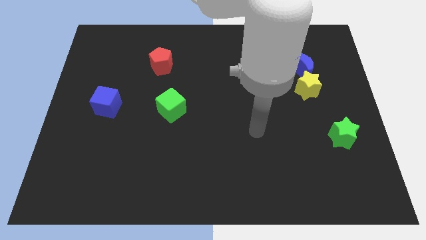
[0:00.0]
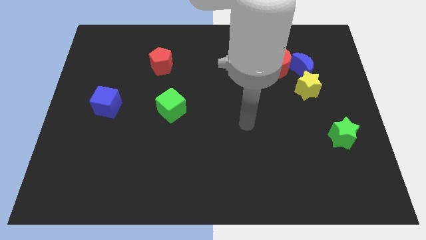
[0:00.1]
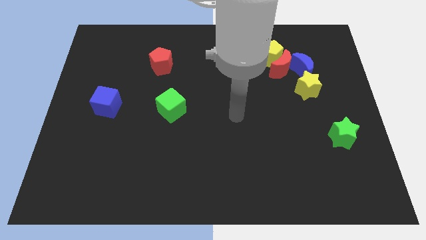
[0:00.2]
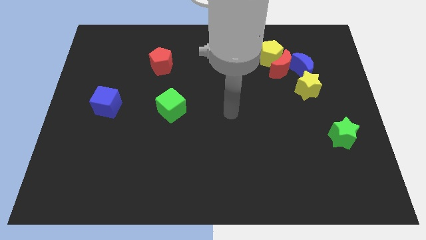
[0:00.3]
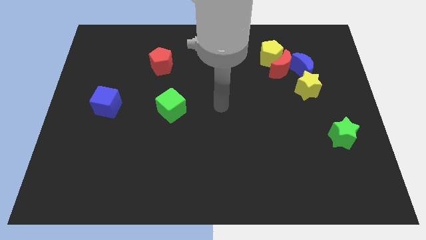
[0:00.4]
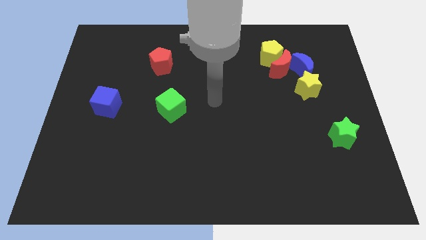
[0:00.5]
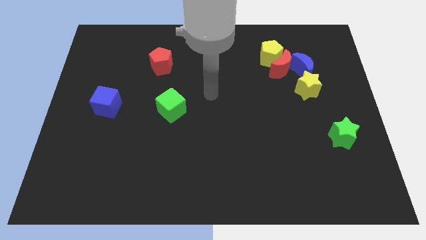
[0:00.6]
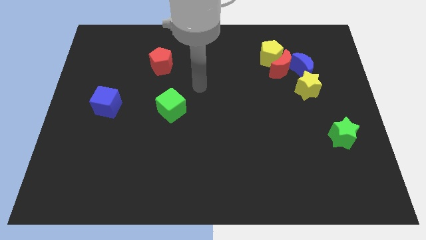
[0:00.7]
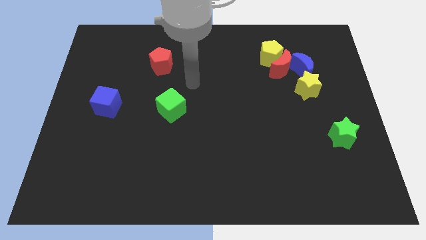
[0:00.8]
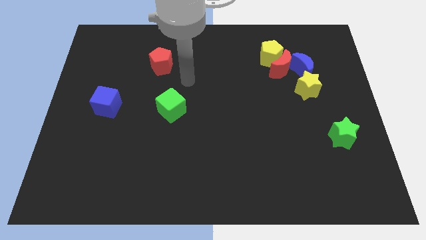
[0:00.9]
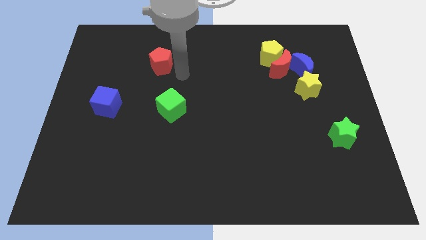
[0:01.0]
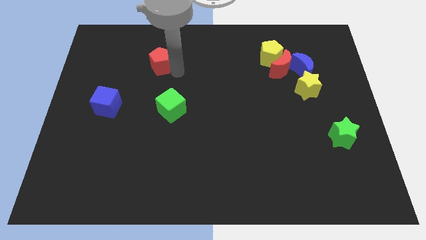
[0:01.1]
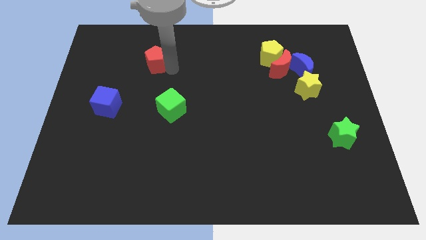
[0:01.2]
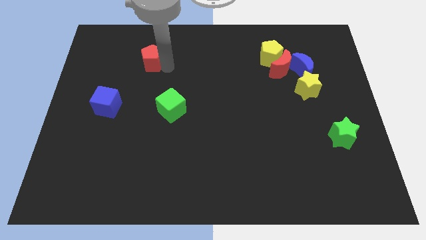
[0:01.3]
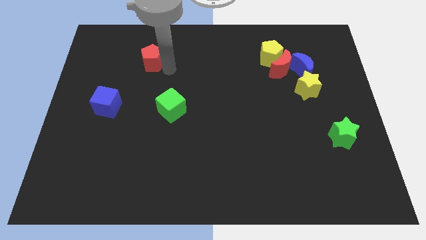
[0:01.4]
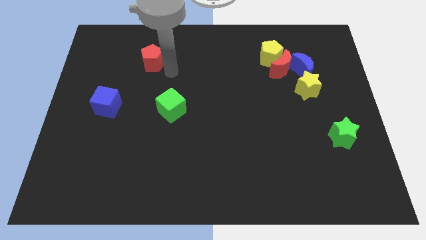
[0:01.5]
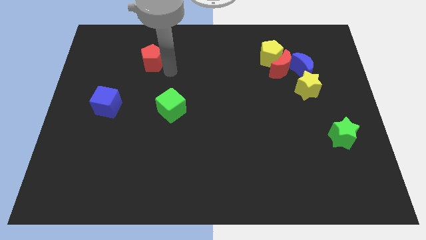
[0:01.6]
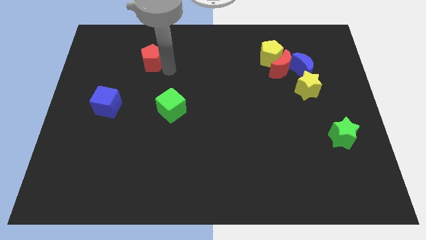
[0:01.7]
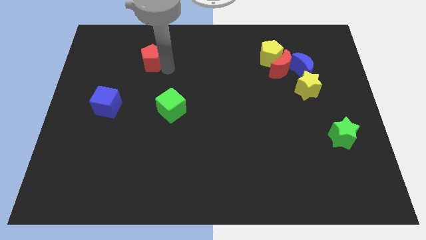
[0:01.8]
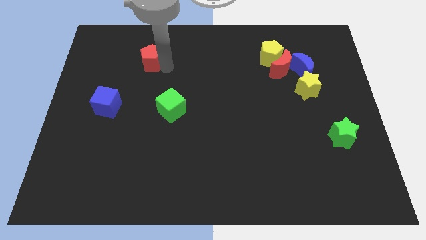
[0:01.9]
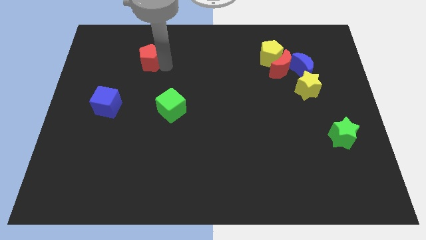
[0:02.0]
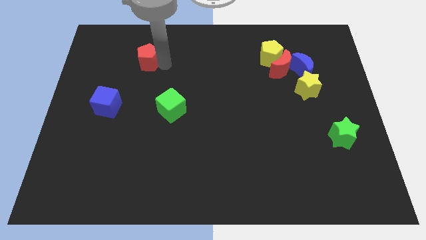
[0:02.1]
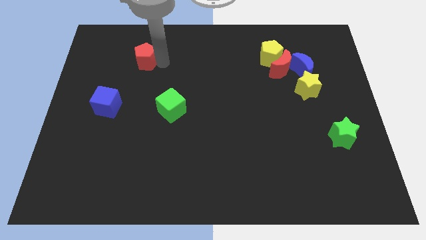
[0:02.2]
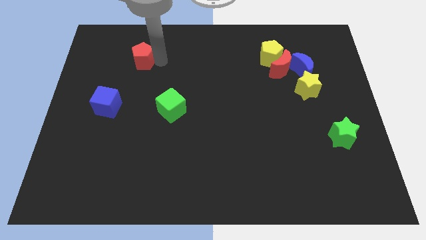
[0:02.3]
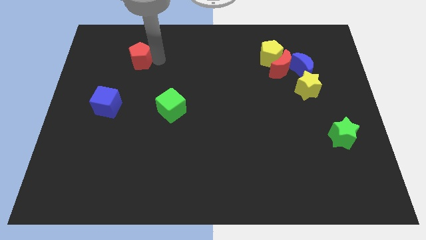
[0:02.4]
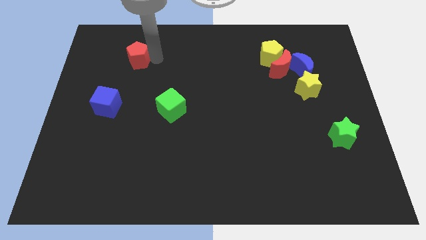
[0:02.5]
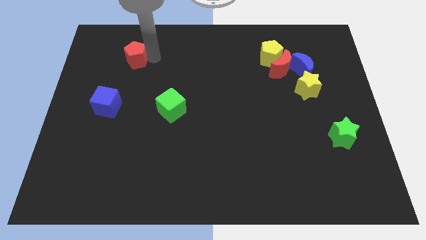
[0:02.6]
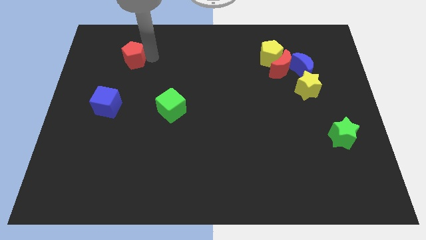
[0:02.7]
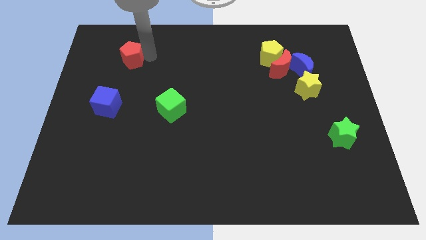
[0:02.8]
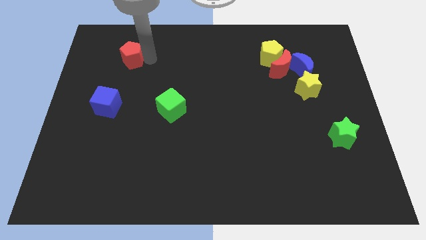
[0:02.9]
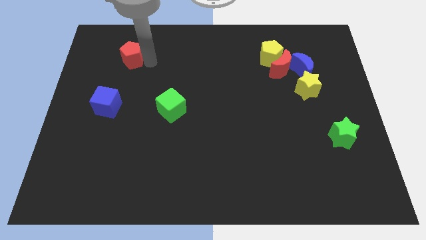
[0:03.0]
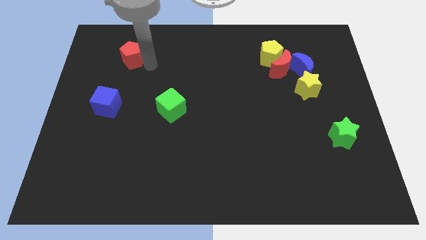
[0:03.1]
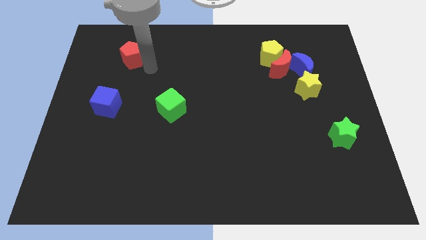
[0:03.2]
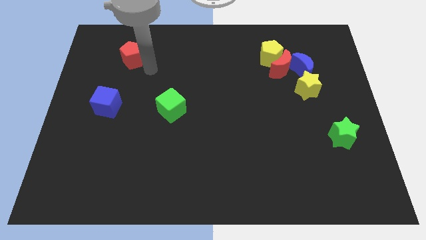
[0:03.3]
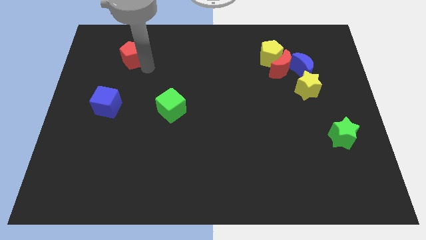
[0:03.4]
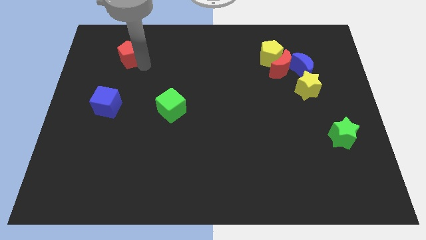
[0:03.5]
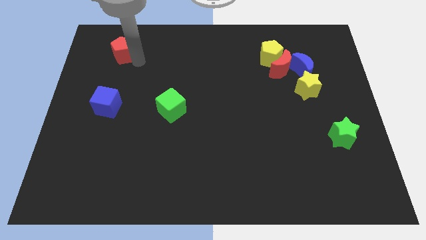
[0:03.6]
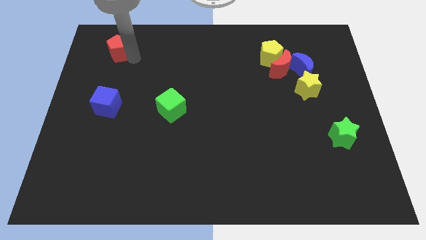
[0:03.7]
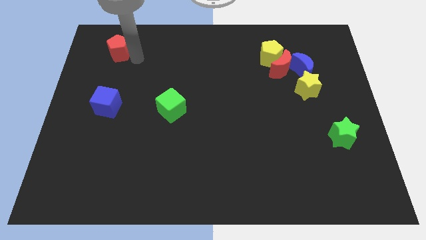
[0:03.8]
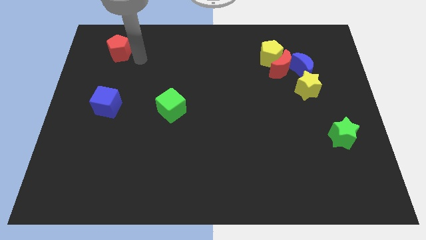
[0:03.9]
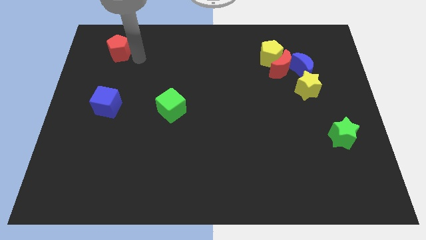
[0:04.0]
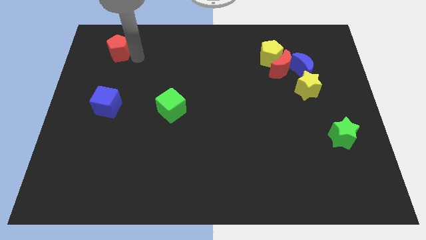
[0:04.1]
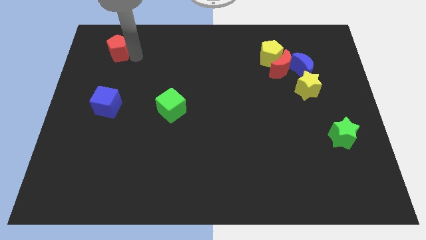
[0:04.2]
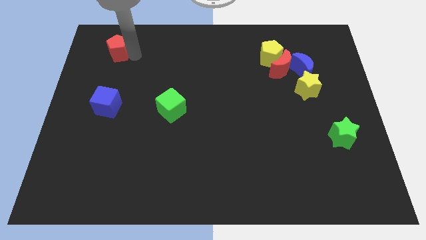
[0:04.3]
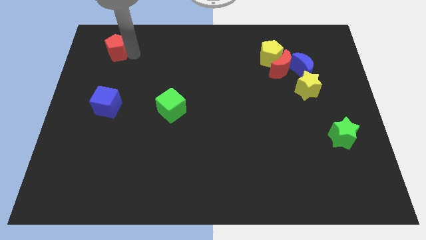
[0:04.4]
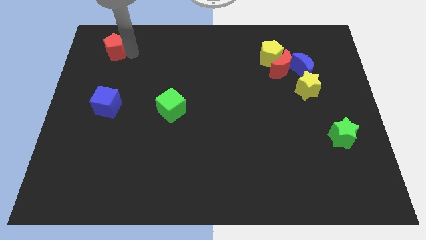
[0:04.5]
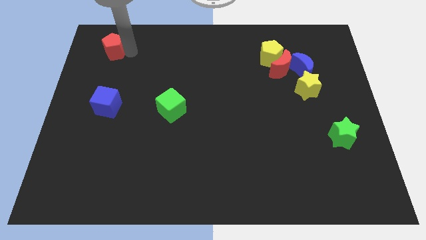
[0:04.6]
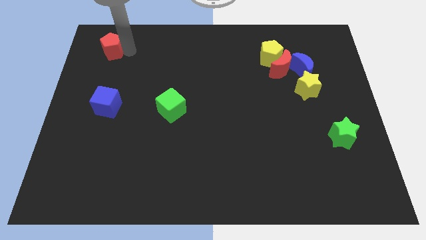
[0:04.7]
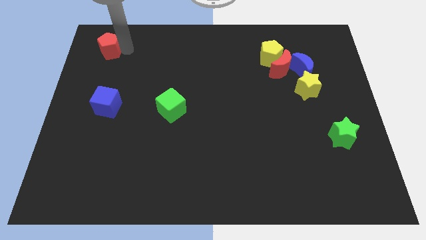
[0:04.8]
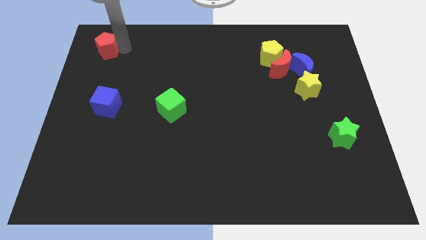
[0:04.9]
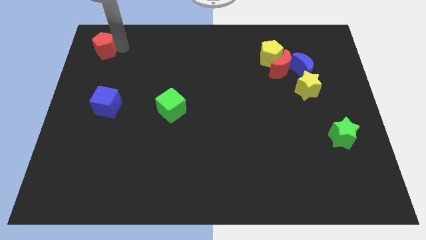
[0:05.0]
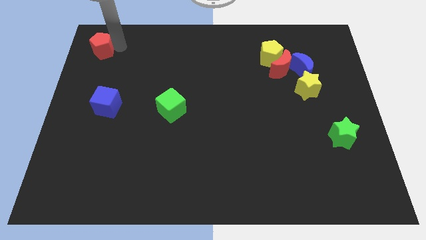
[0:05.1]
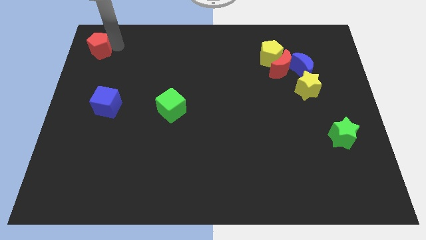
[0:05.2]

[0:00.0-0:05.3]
push the red pentagon to the top left of the board

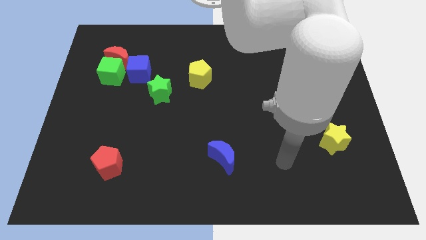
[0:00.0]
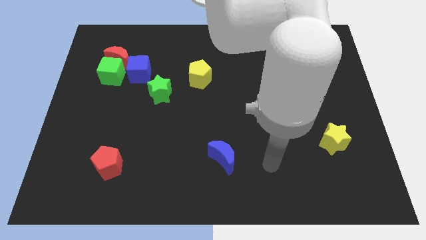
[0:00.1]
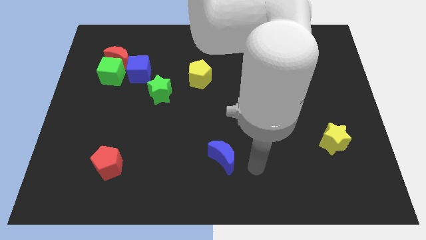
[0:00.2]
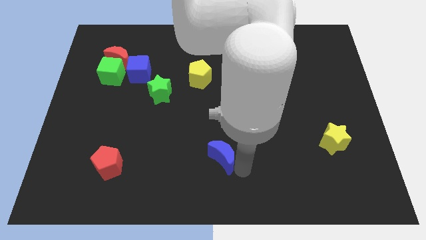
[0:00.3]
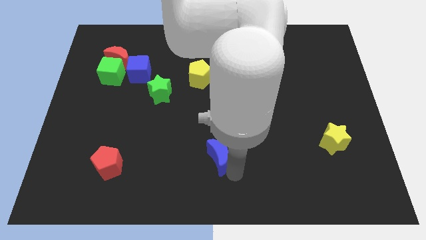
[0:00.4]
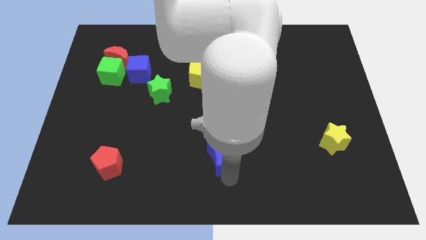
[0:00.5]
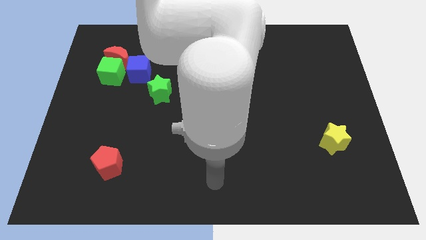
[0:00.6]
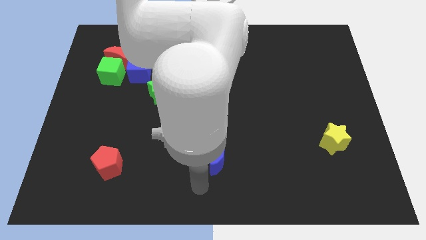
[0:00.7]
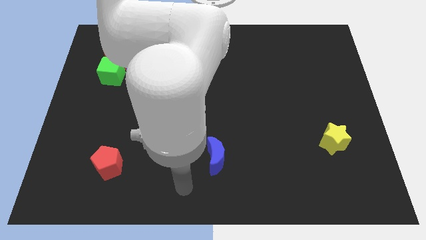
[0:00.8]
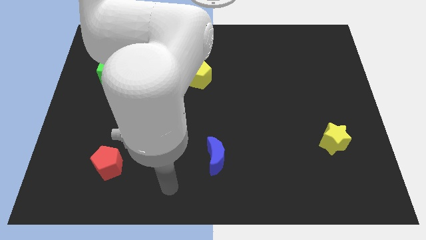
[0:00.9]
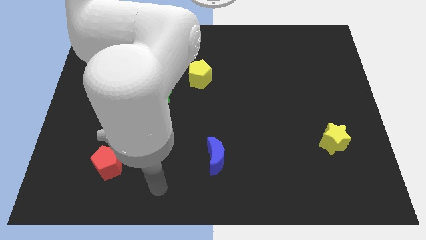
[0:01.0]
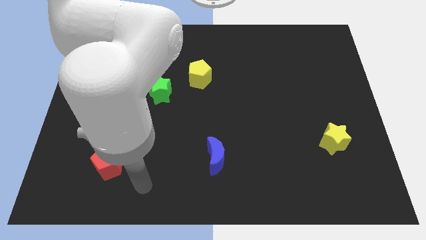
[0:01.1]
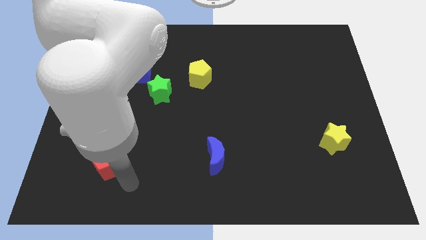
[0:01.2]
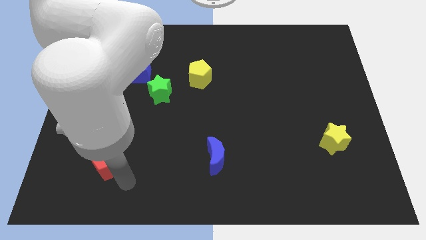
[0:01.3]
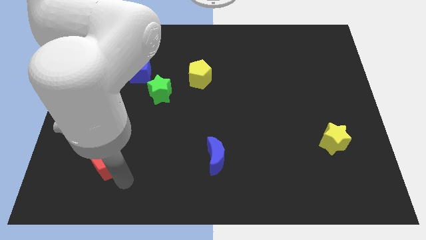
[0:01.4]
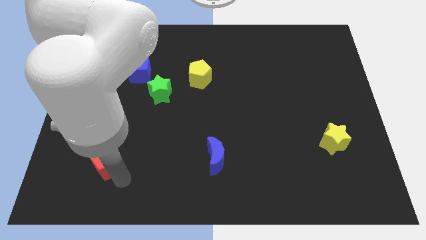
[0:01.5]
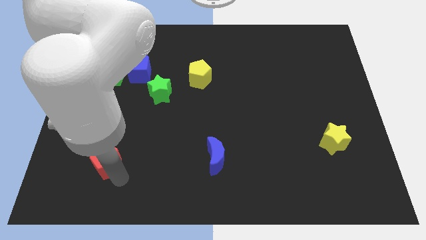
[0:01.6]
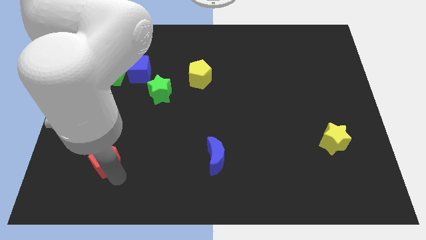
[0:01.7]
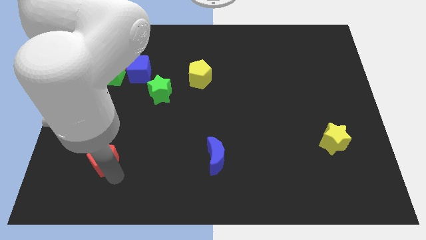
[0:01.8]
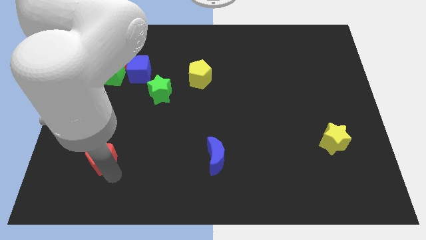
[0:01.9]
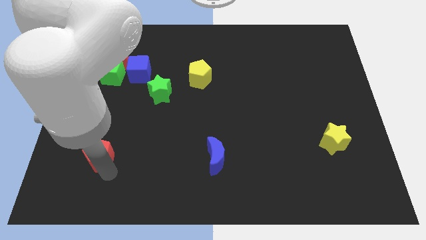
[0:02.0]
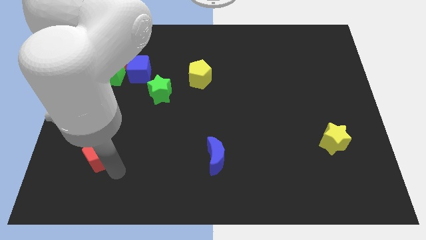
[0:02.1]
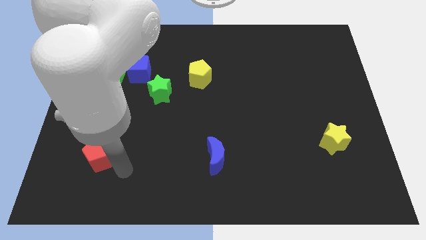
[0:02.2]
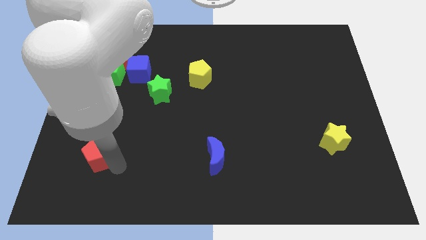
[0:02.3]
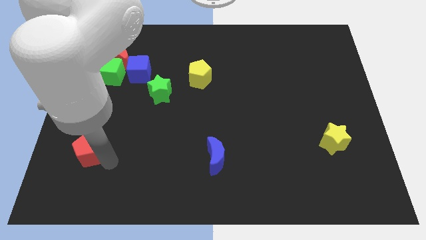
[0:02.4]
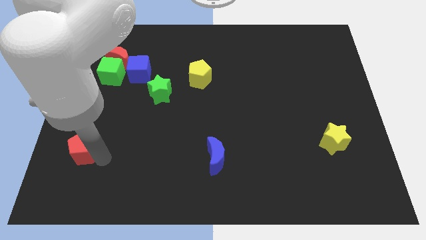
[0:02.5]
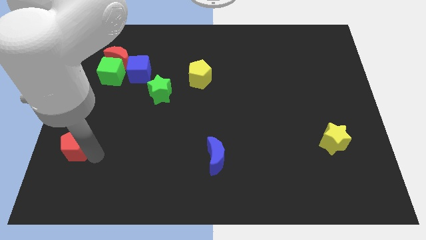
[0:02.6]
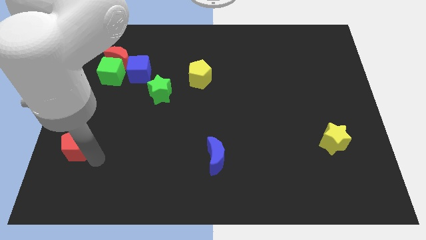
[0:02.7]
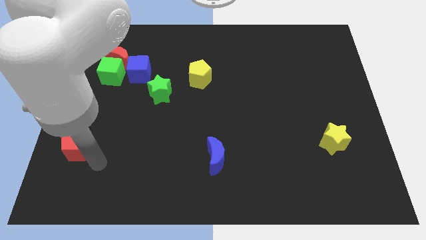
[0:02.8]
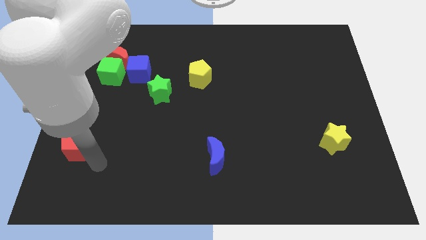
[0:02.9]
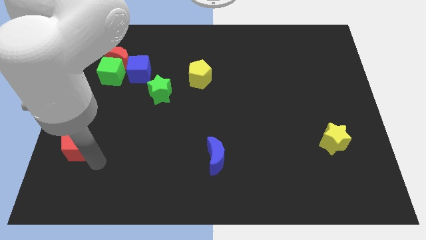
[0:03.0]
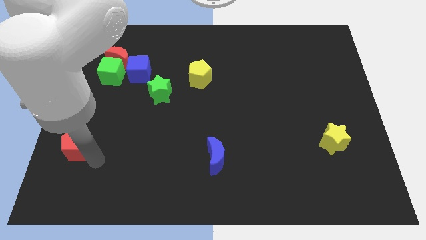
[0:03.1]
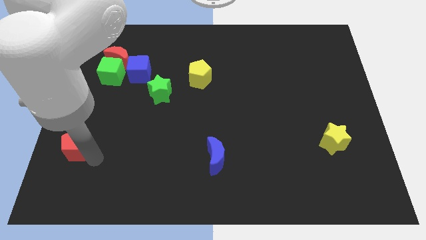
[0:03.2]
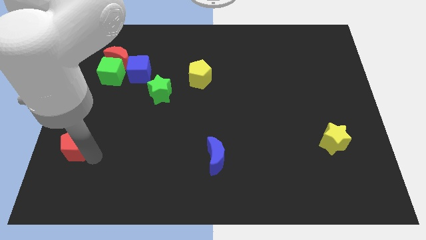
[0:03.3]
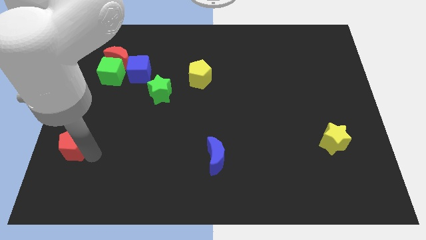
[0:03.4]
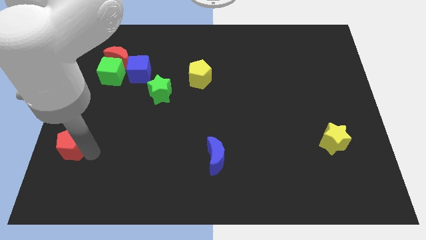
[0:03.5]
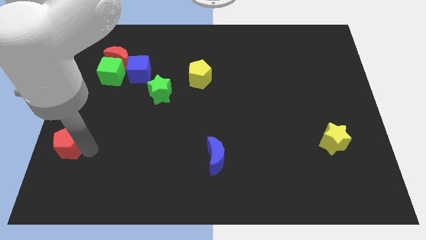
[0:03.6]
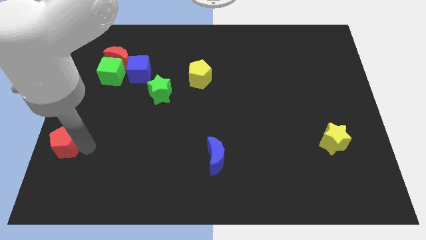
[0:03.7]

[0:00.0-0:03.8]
move the red pentagon to the left side of the board
